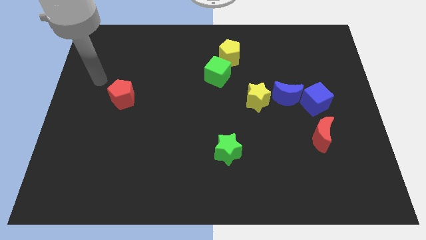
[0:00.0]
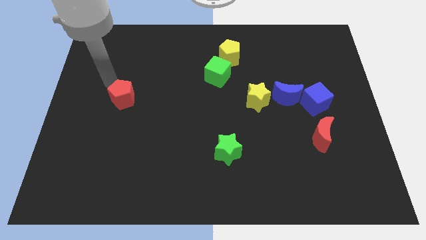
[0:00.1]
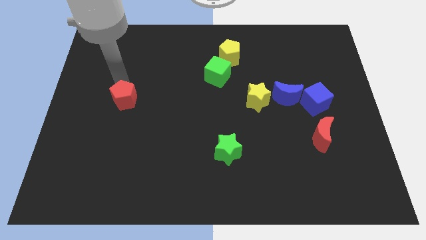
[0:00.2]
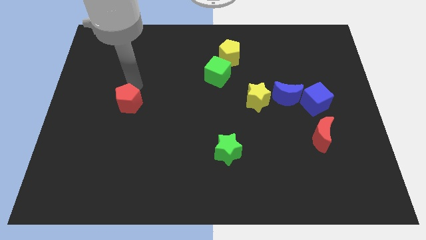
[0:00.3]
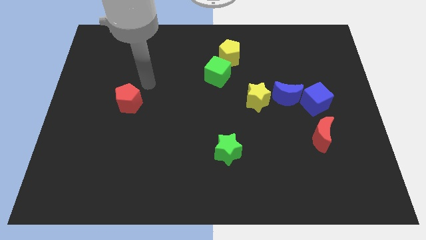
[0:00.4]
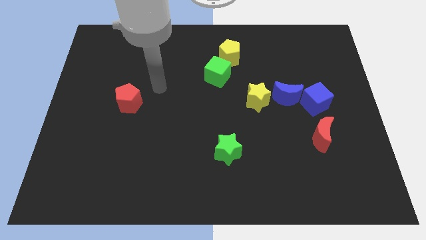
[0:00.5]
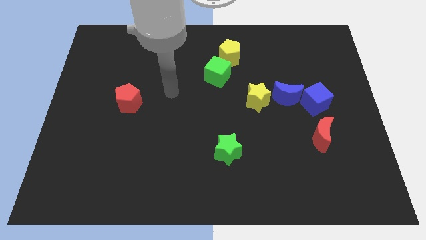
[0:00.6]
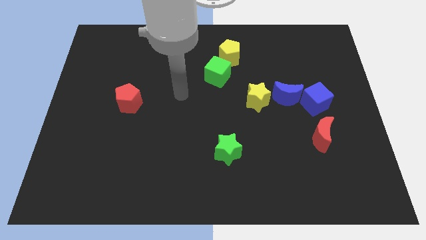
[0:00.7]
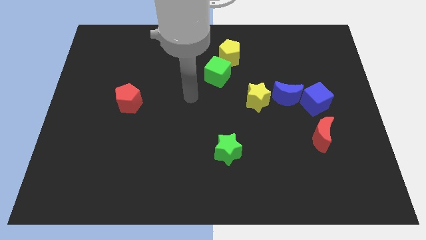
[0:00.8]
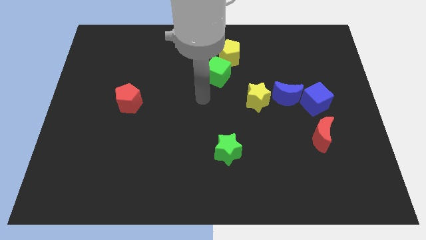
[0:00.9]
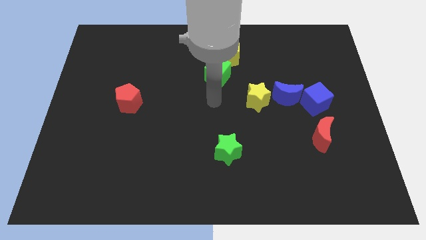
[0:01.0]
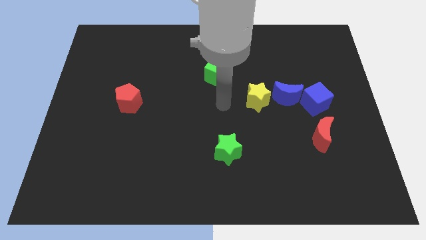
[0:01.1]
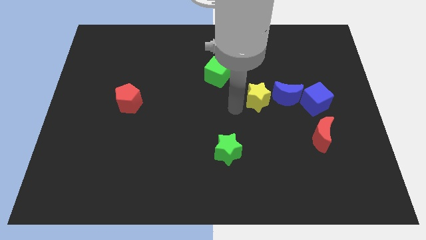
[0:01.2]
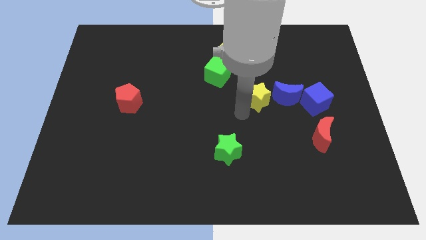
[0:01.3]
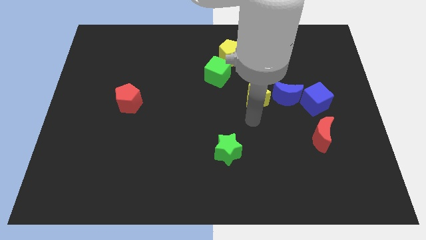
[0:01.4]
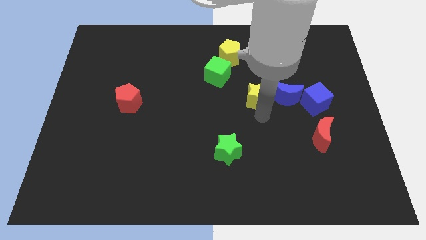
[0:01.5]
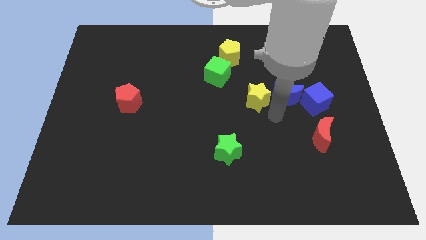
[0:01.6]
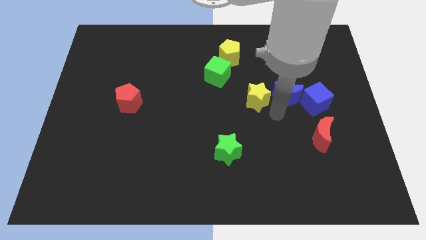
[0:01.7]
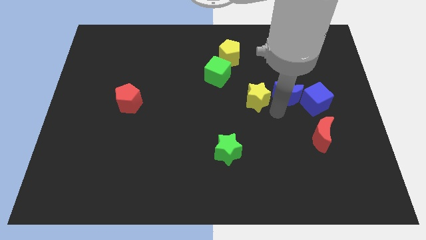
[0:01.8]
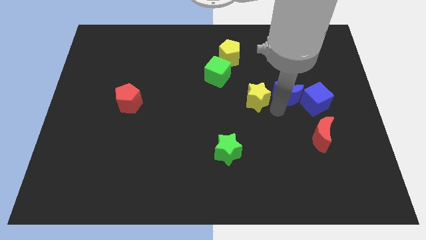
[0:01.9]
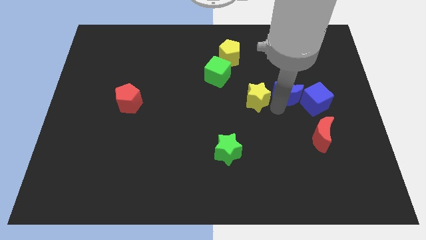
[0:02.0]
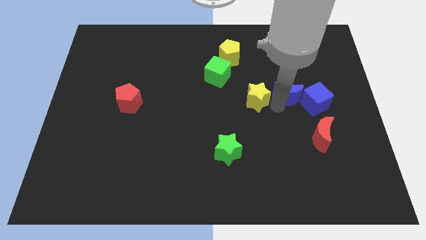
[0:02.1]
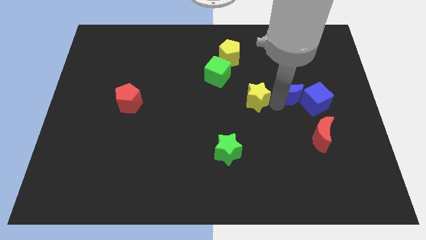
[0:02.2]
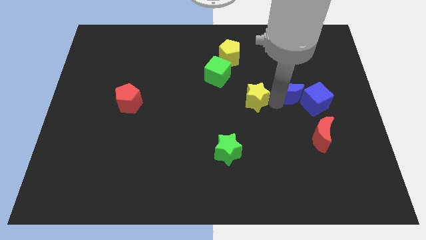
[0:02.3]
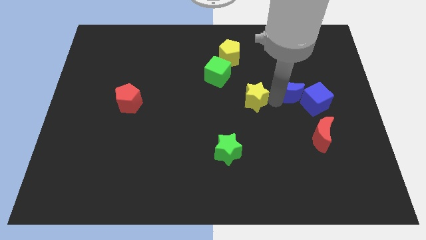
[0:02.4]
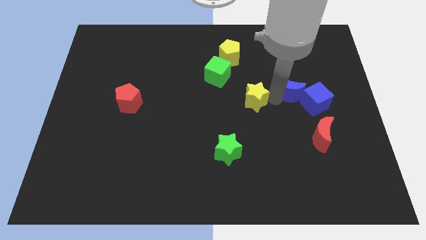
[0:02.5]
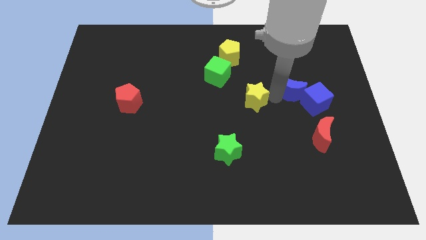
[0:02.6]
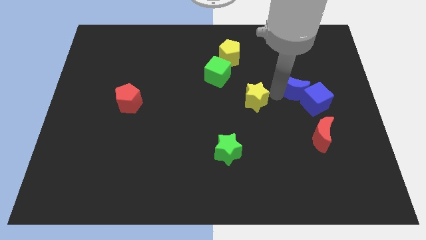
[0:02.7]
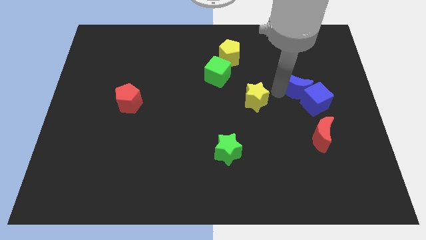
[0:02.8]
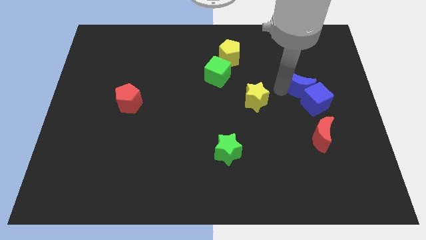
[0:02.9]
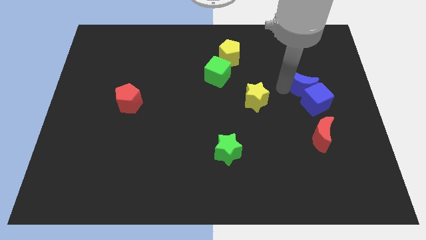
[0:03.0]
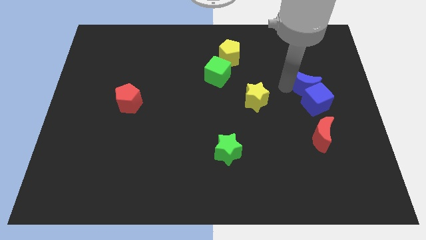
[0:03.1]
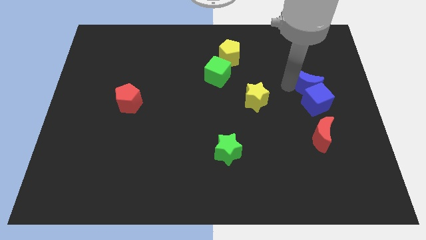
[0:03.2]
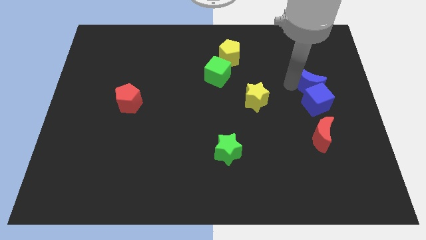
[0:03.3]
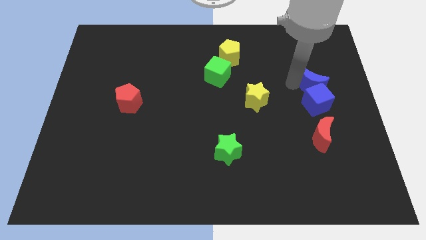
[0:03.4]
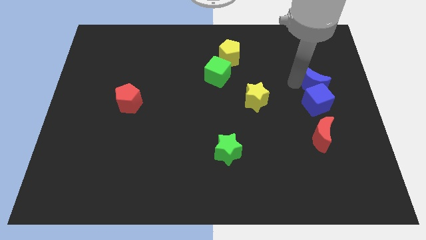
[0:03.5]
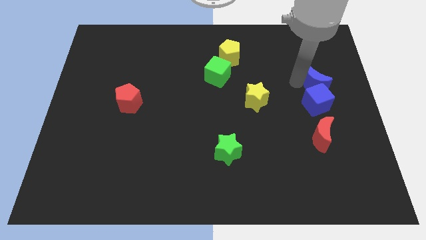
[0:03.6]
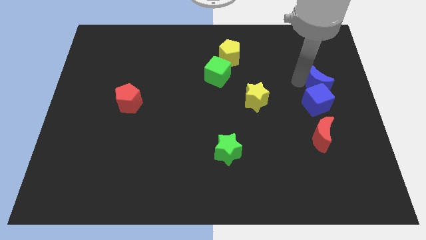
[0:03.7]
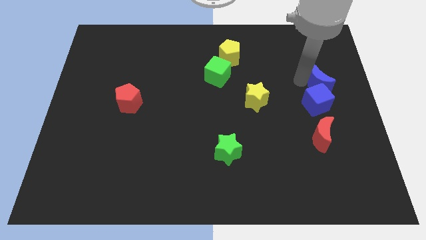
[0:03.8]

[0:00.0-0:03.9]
move the blue moon away from the blue cube and yellow star

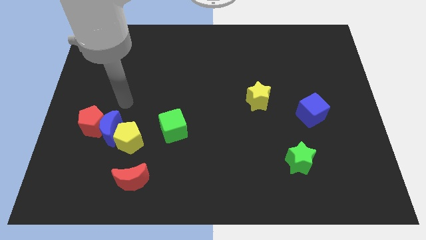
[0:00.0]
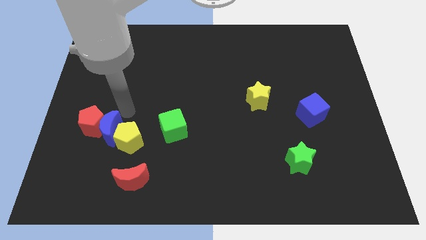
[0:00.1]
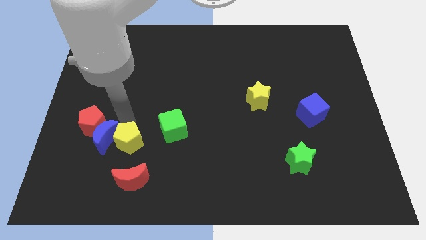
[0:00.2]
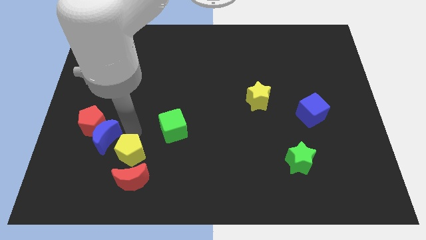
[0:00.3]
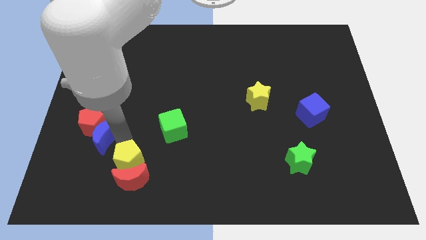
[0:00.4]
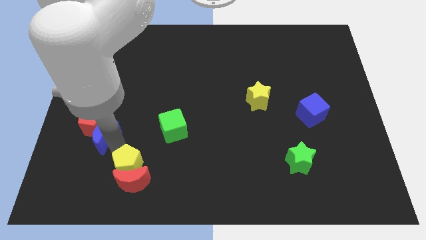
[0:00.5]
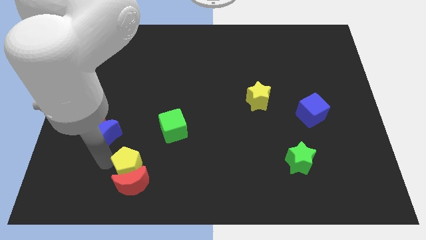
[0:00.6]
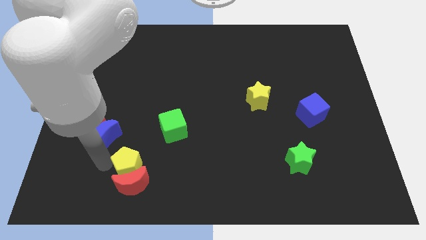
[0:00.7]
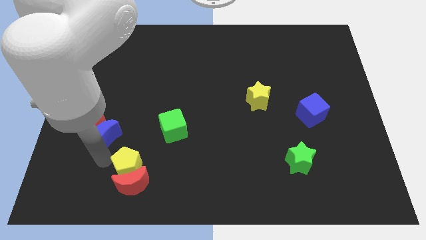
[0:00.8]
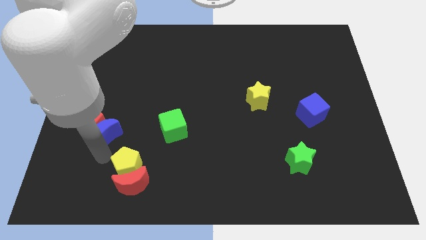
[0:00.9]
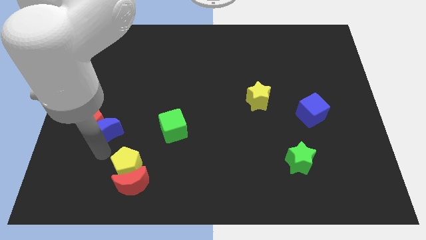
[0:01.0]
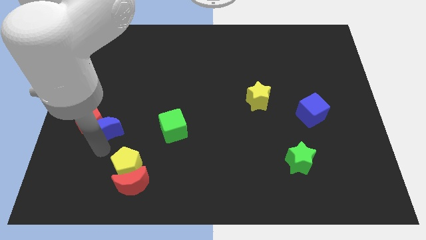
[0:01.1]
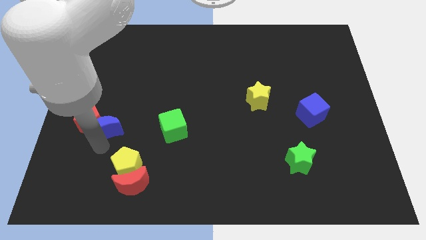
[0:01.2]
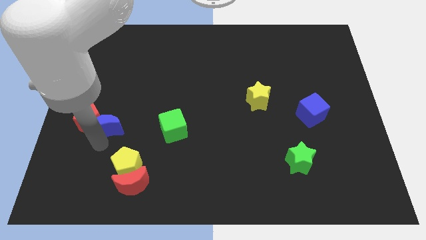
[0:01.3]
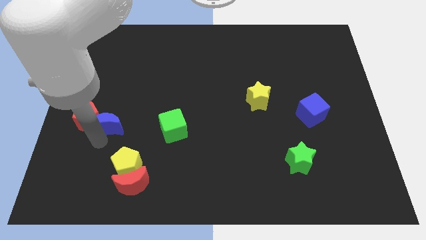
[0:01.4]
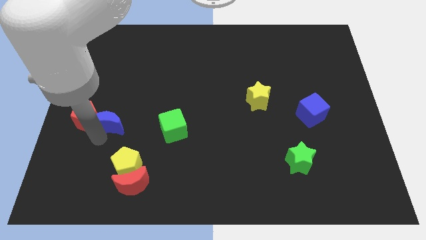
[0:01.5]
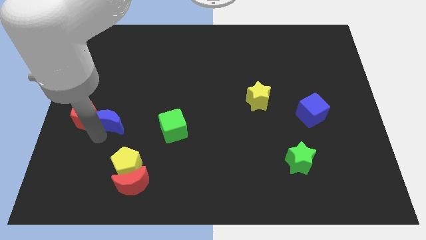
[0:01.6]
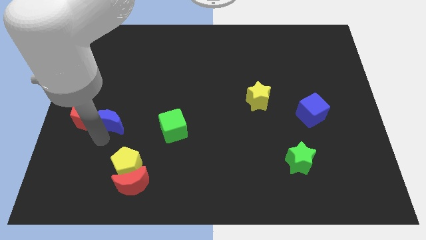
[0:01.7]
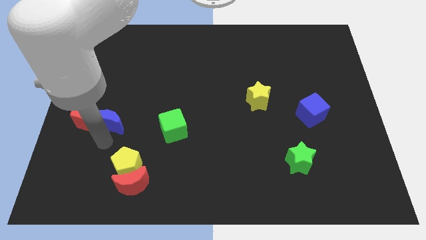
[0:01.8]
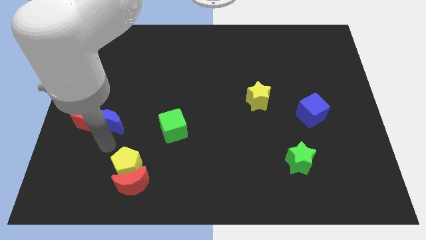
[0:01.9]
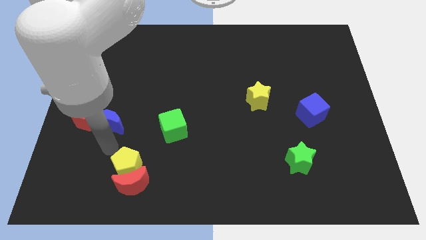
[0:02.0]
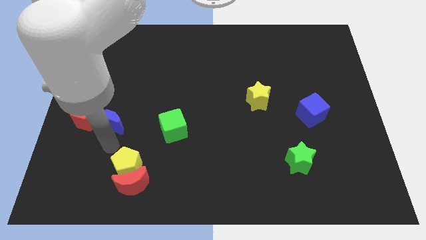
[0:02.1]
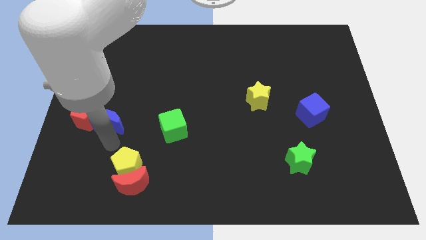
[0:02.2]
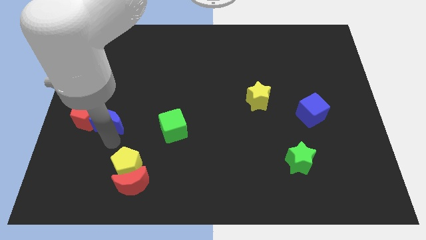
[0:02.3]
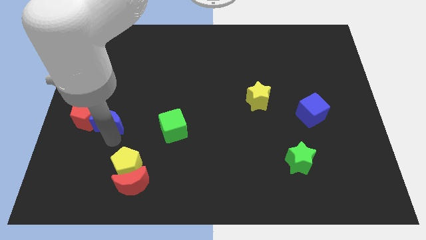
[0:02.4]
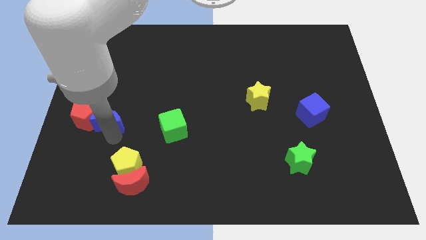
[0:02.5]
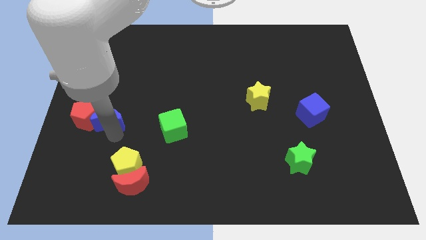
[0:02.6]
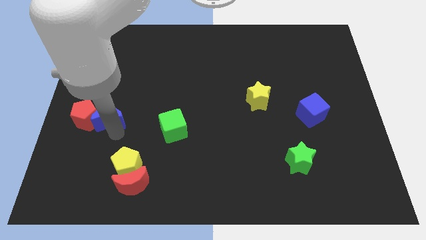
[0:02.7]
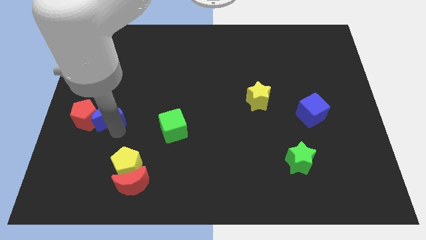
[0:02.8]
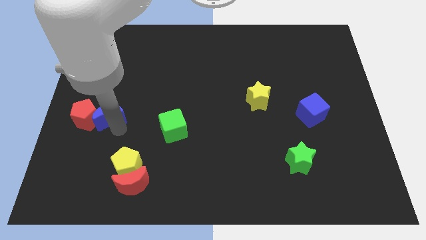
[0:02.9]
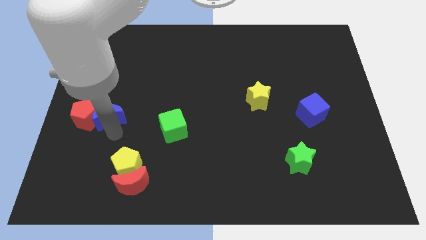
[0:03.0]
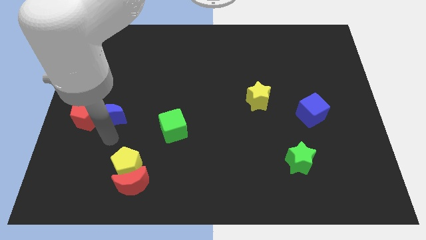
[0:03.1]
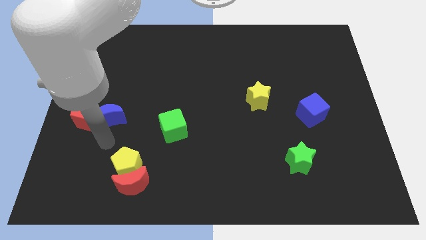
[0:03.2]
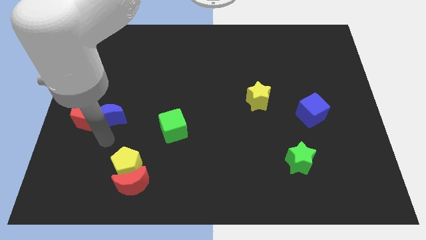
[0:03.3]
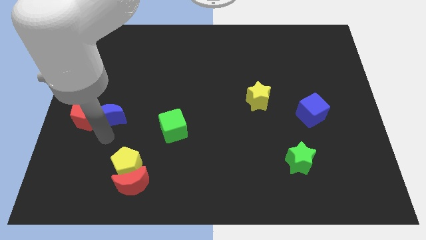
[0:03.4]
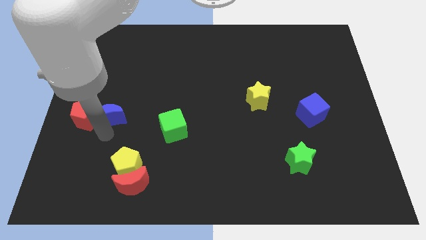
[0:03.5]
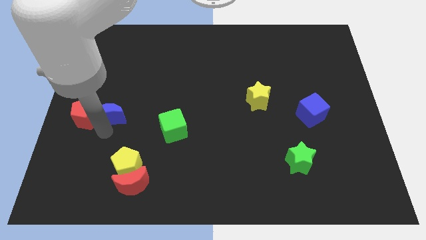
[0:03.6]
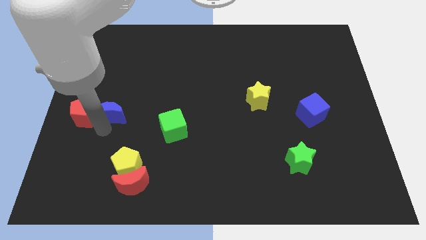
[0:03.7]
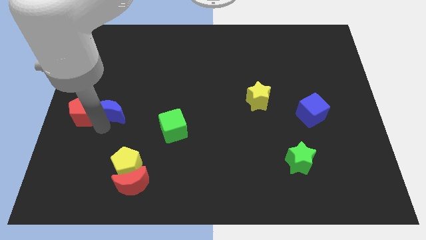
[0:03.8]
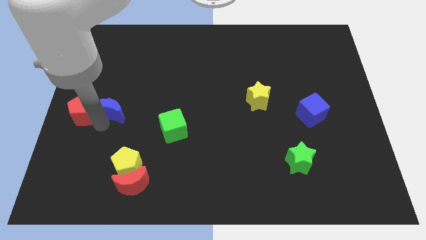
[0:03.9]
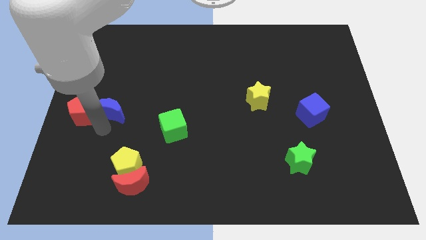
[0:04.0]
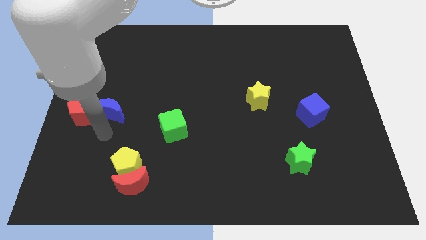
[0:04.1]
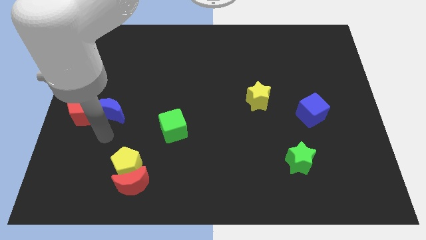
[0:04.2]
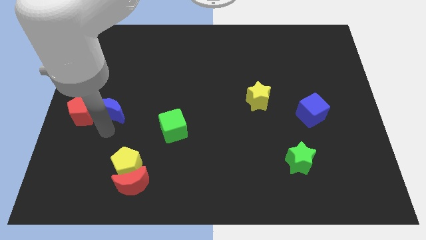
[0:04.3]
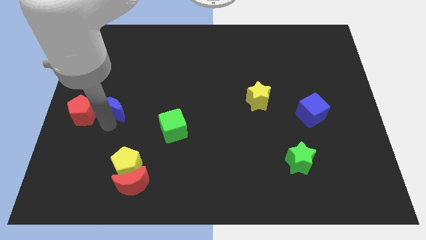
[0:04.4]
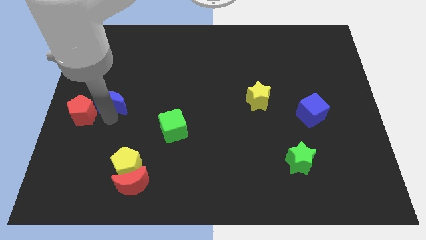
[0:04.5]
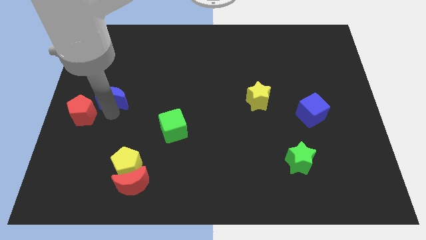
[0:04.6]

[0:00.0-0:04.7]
move the blue moon away from the red pentagon and yellow pentagon

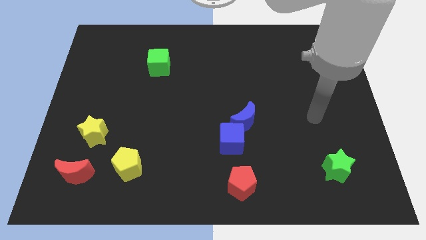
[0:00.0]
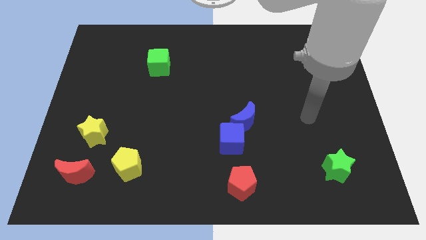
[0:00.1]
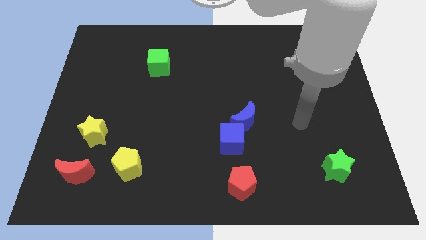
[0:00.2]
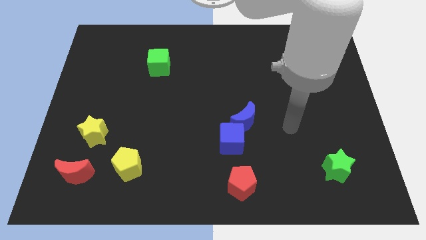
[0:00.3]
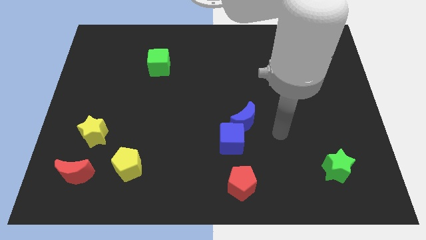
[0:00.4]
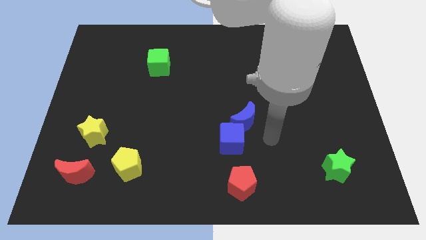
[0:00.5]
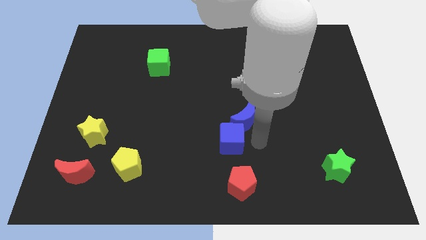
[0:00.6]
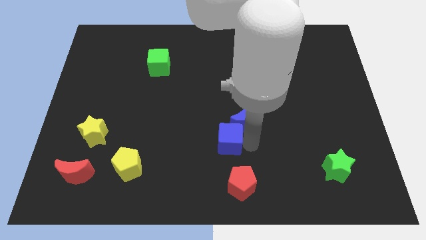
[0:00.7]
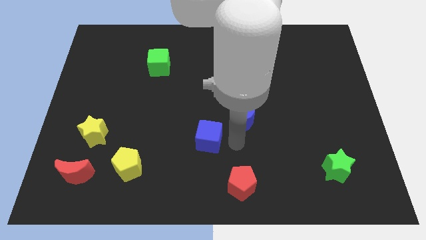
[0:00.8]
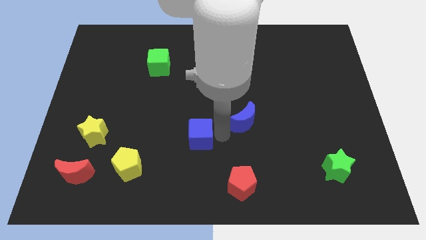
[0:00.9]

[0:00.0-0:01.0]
move the blue moon away from the blue cube
